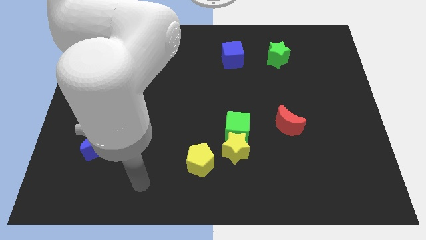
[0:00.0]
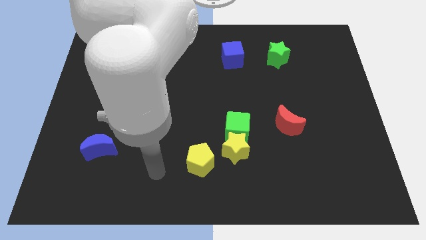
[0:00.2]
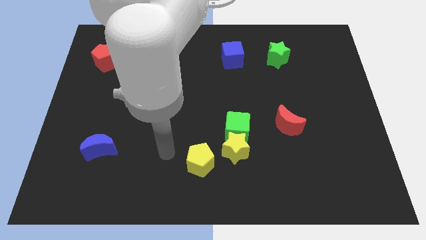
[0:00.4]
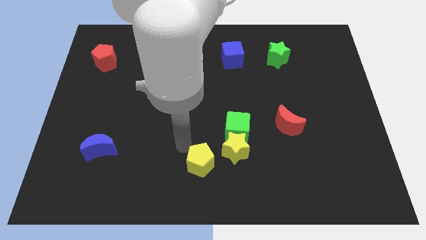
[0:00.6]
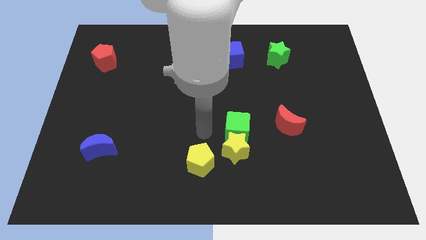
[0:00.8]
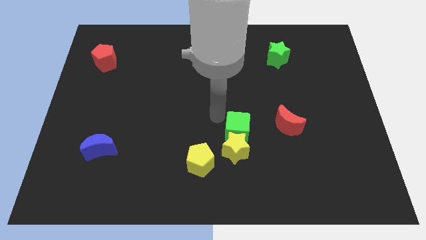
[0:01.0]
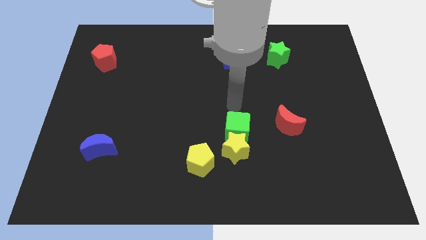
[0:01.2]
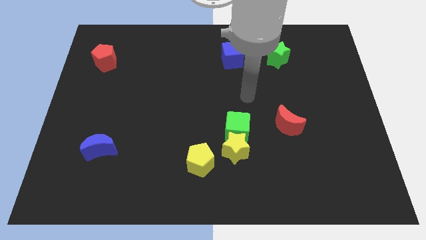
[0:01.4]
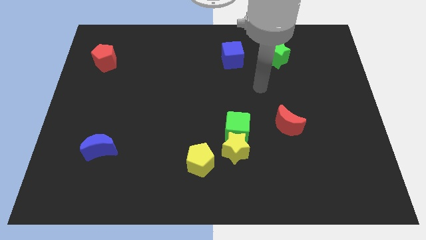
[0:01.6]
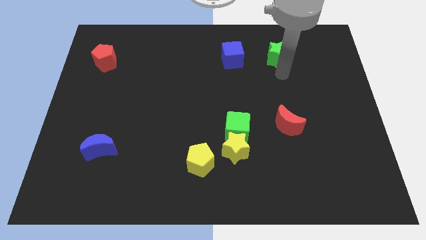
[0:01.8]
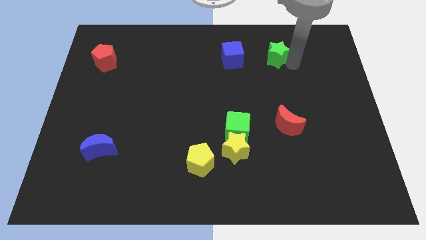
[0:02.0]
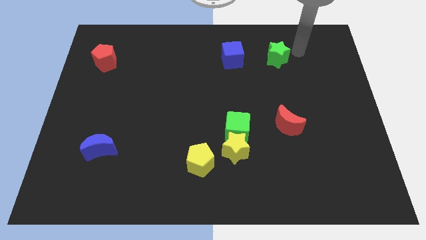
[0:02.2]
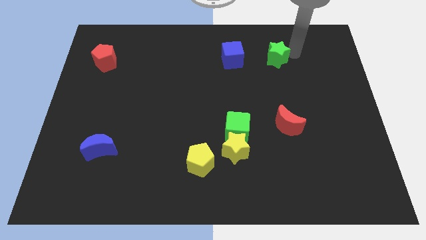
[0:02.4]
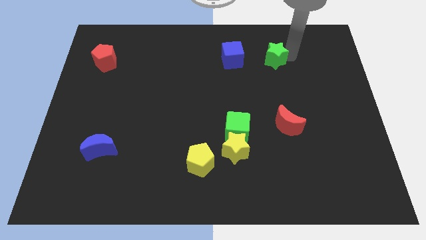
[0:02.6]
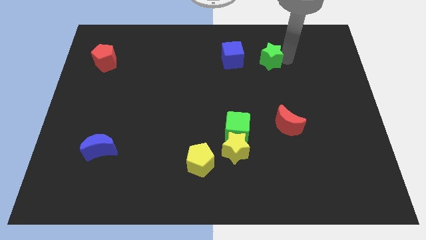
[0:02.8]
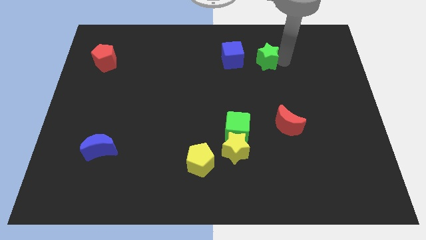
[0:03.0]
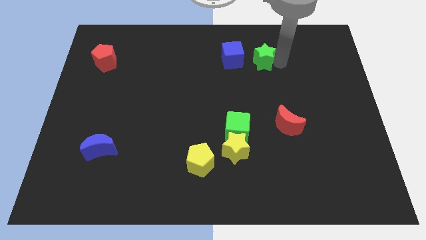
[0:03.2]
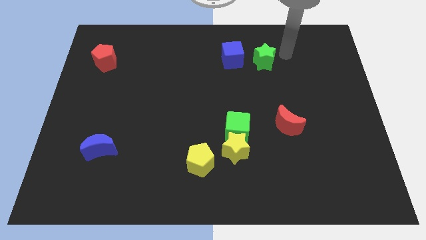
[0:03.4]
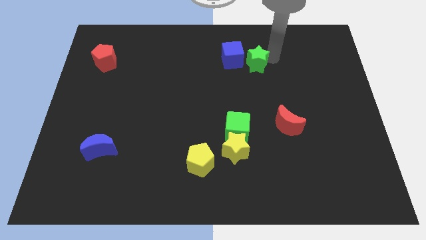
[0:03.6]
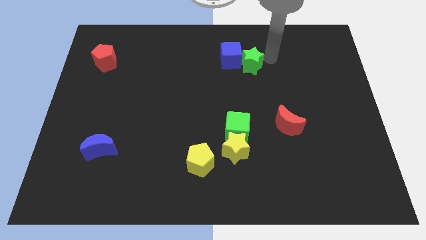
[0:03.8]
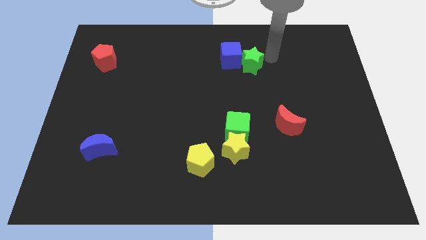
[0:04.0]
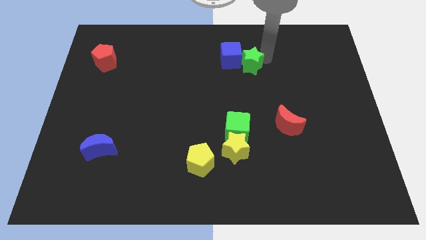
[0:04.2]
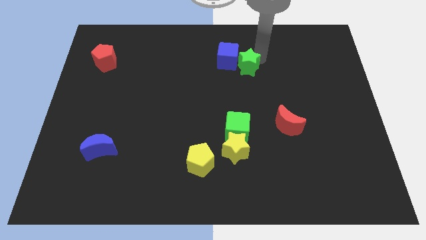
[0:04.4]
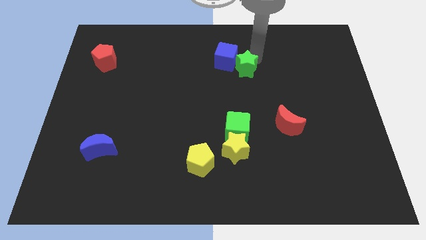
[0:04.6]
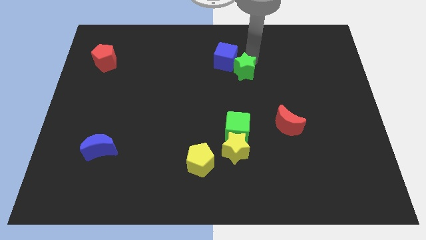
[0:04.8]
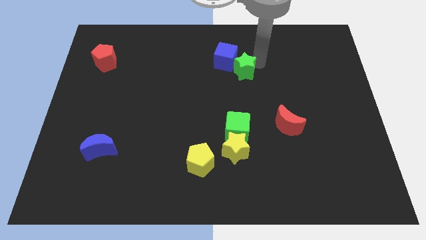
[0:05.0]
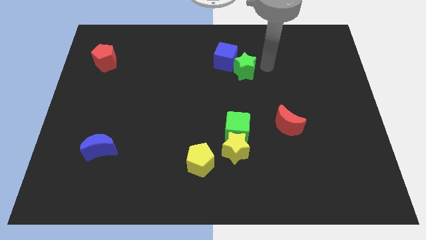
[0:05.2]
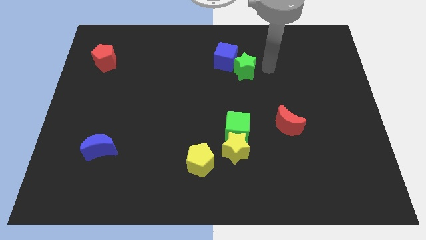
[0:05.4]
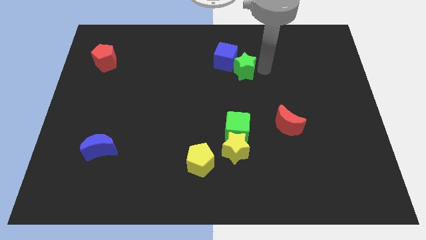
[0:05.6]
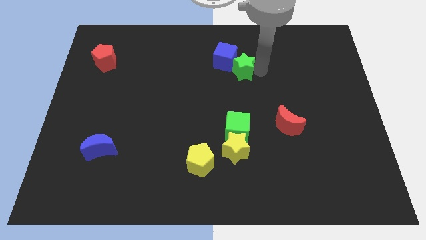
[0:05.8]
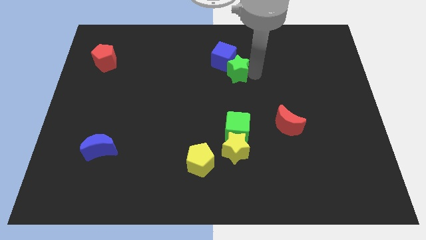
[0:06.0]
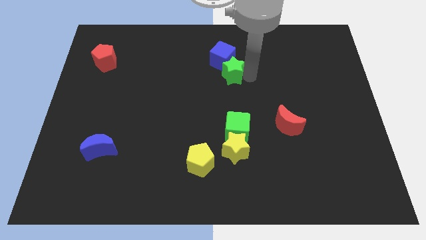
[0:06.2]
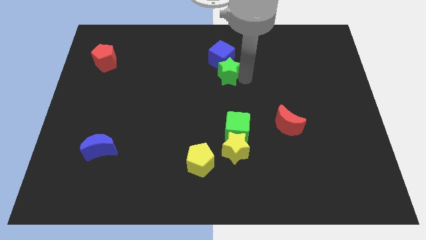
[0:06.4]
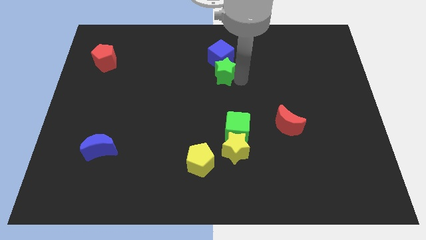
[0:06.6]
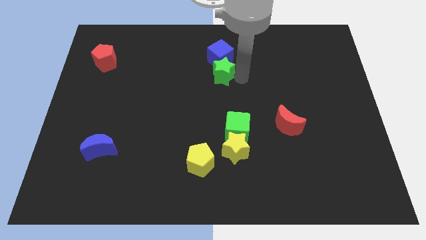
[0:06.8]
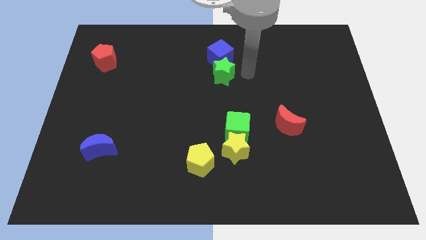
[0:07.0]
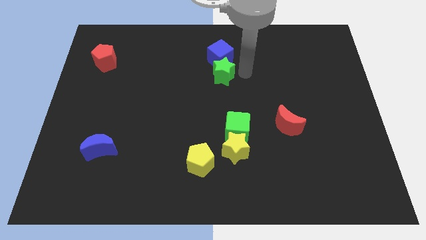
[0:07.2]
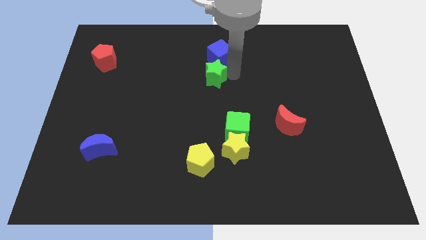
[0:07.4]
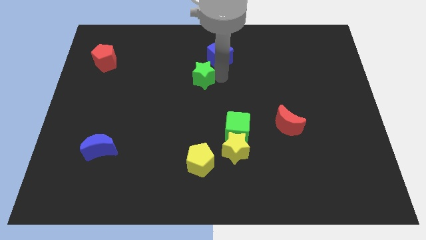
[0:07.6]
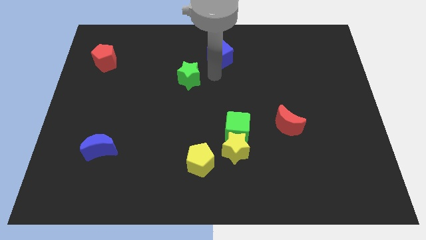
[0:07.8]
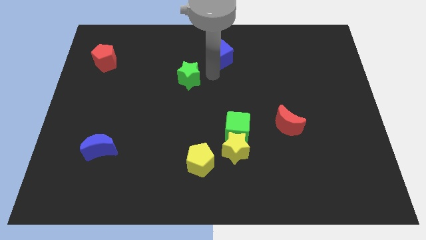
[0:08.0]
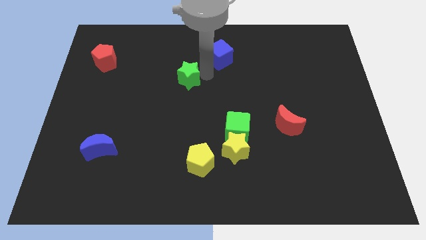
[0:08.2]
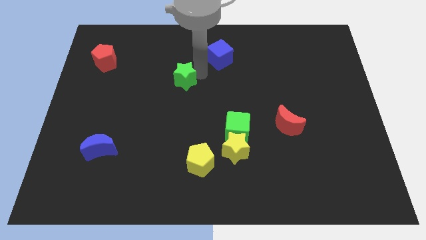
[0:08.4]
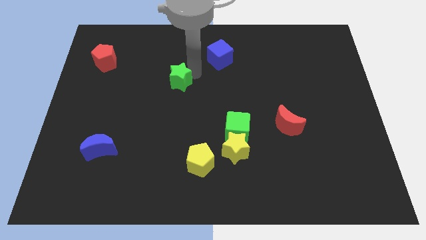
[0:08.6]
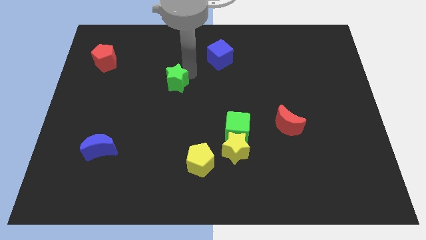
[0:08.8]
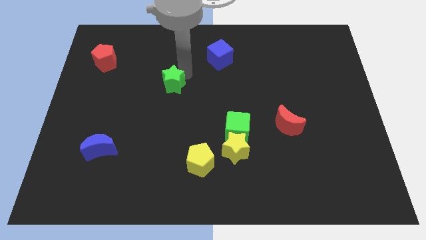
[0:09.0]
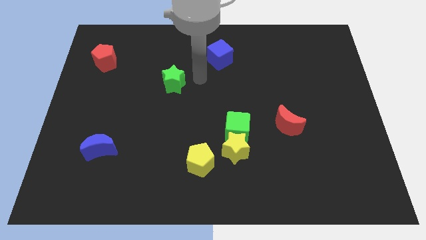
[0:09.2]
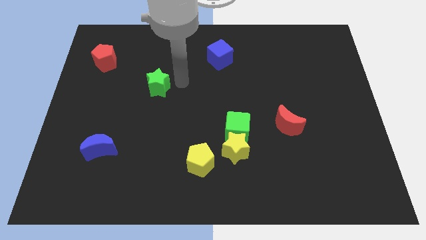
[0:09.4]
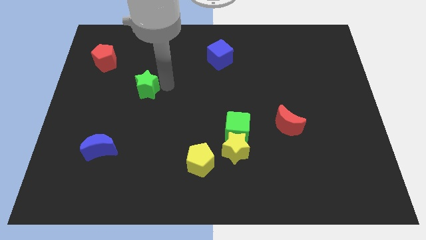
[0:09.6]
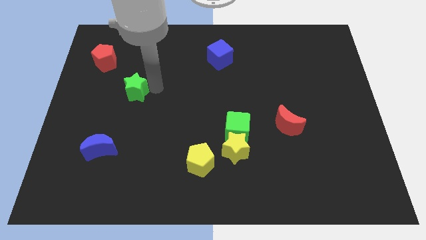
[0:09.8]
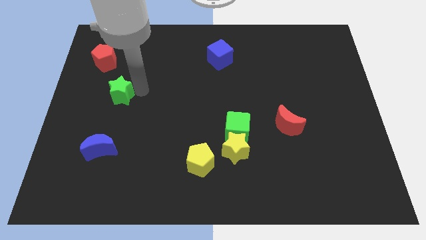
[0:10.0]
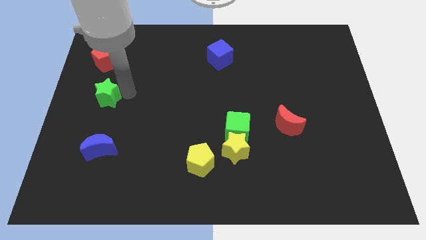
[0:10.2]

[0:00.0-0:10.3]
put the green star to the left side

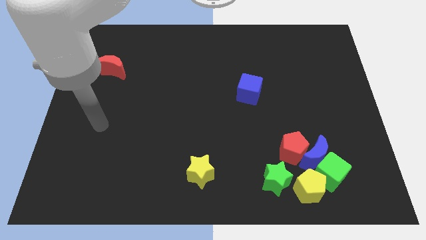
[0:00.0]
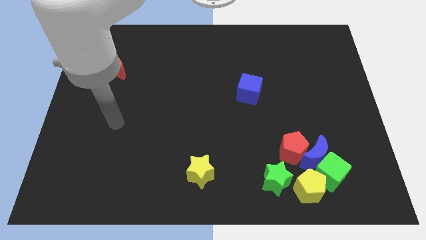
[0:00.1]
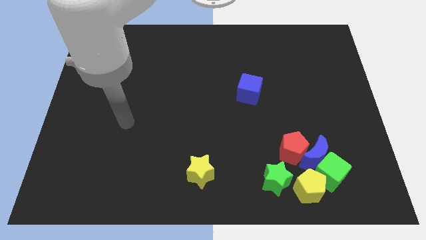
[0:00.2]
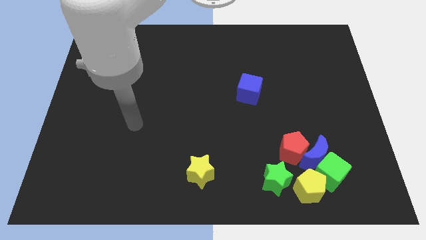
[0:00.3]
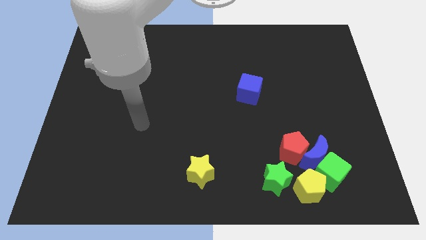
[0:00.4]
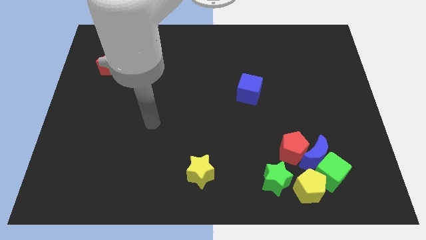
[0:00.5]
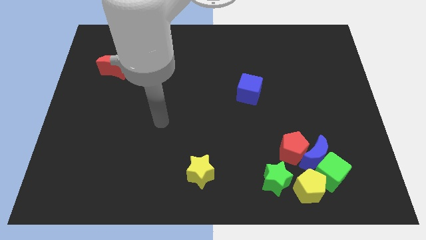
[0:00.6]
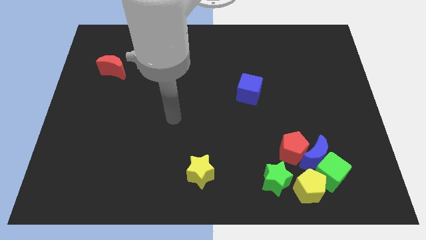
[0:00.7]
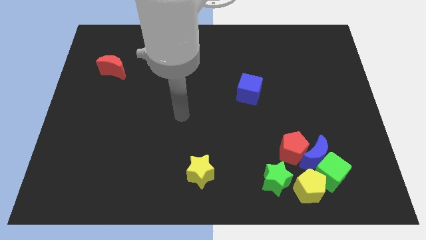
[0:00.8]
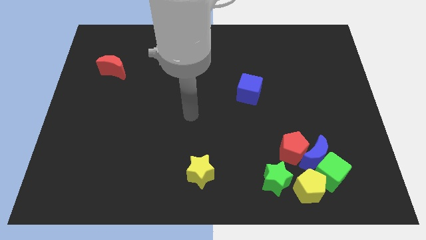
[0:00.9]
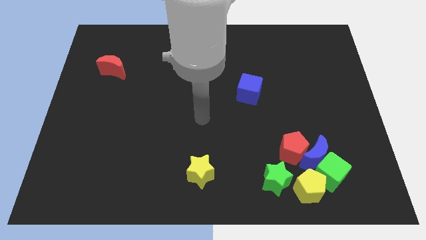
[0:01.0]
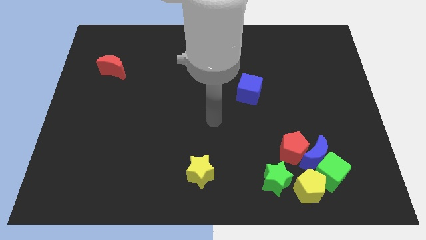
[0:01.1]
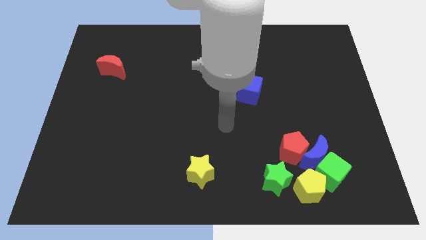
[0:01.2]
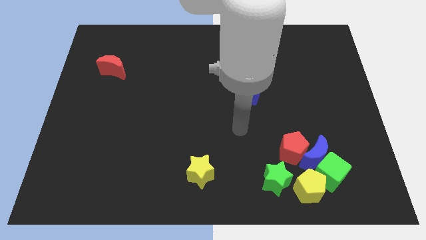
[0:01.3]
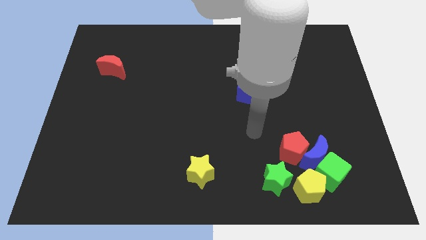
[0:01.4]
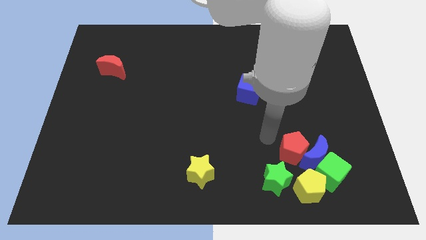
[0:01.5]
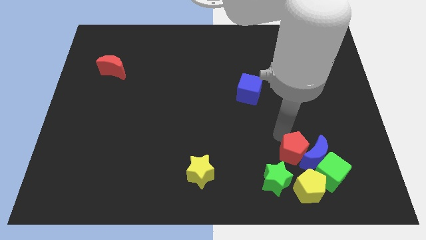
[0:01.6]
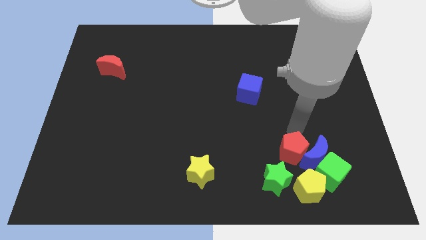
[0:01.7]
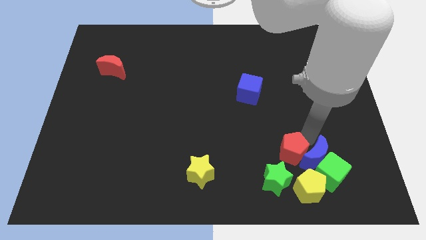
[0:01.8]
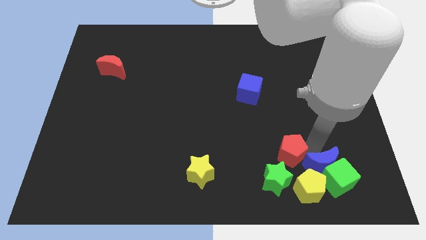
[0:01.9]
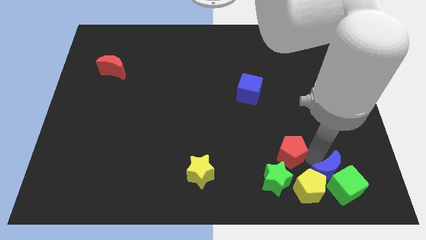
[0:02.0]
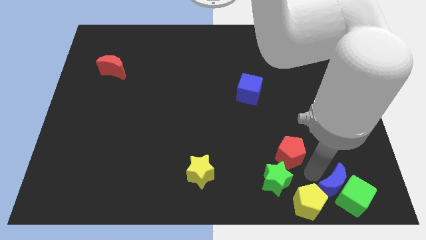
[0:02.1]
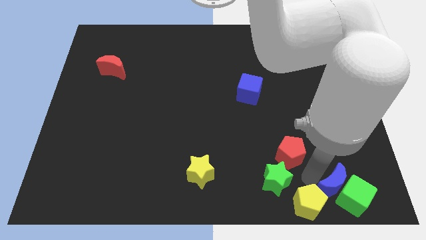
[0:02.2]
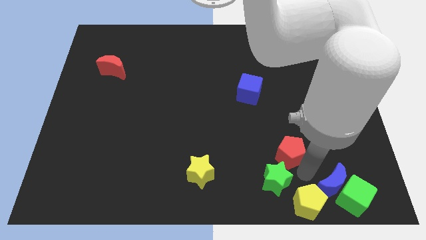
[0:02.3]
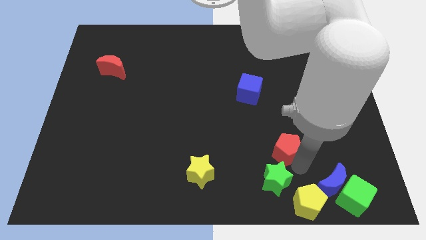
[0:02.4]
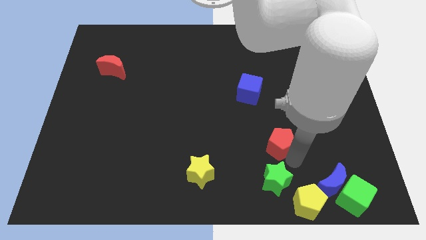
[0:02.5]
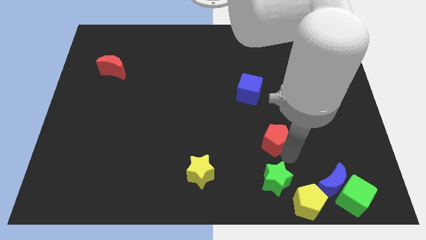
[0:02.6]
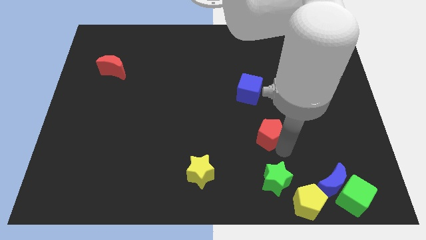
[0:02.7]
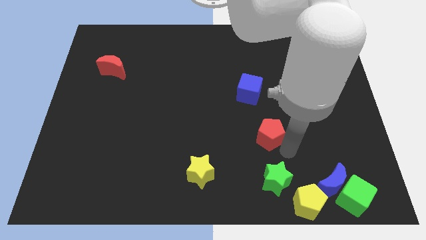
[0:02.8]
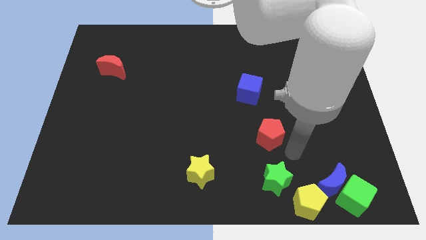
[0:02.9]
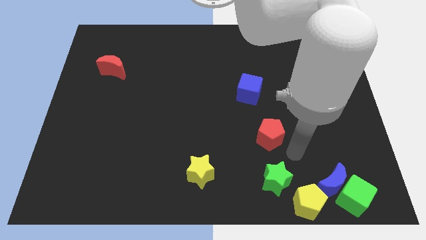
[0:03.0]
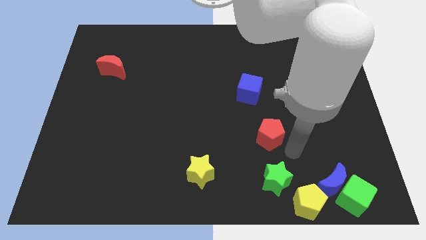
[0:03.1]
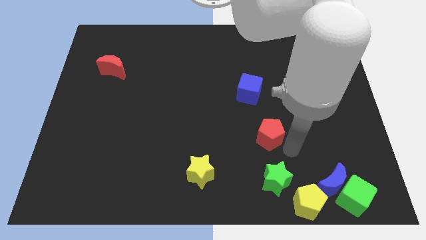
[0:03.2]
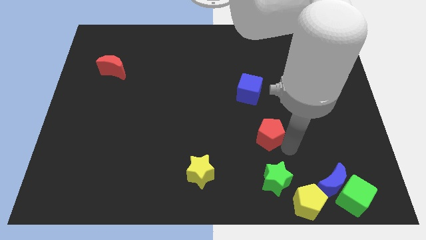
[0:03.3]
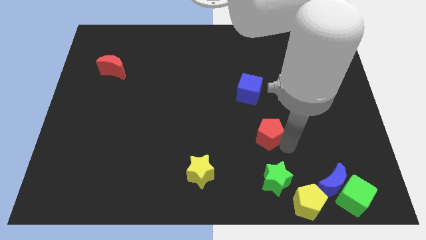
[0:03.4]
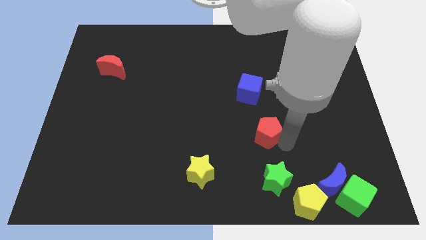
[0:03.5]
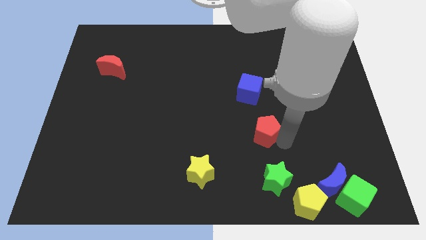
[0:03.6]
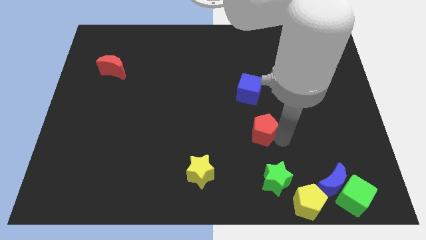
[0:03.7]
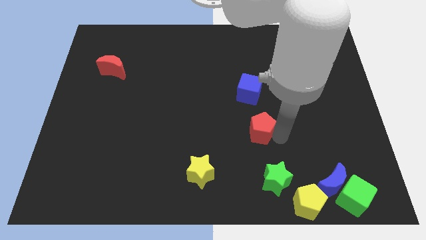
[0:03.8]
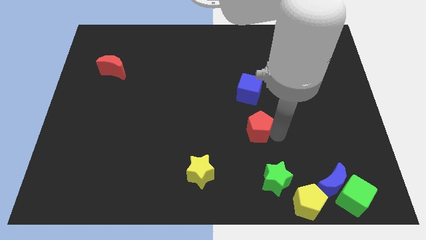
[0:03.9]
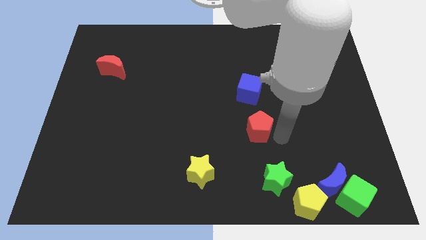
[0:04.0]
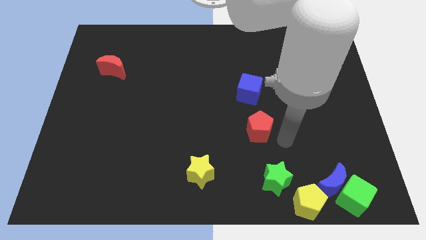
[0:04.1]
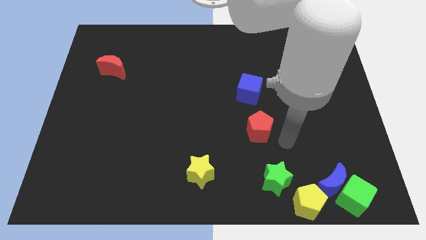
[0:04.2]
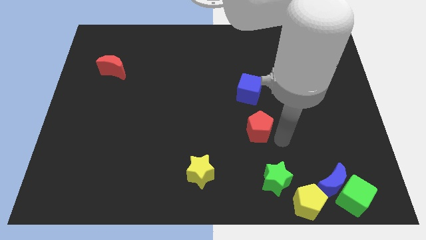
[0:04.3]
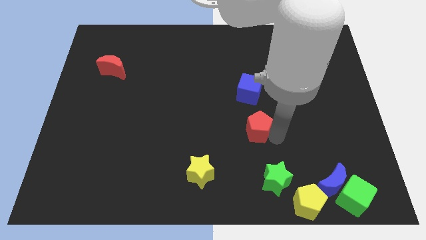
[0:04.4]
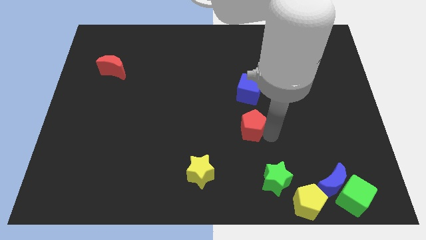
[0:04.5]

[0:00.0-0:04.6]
slide the red pentagon to the center
